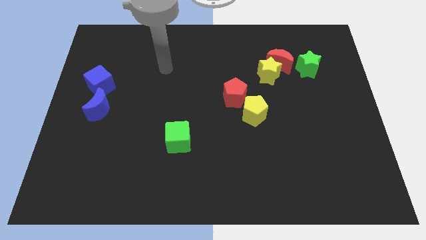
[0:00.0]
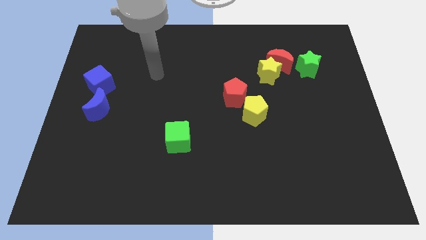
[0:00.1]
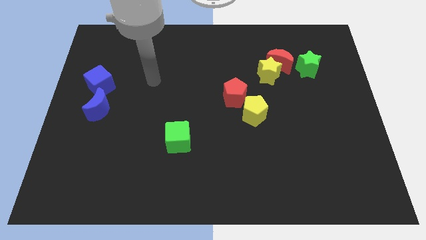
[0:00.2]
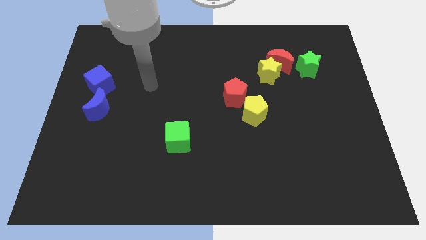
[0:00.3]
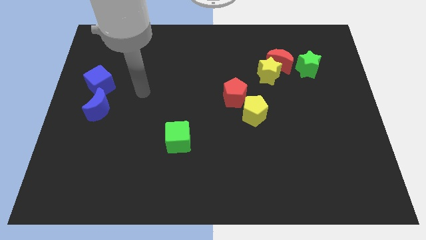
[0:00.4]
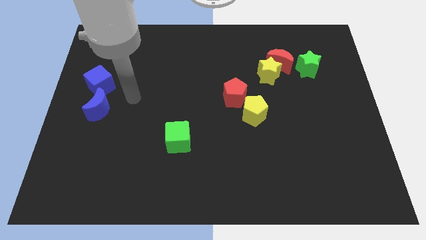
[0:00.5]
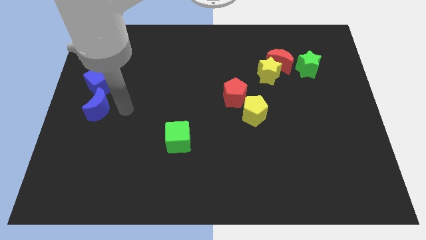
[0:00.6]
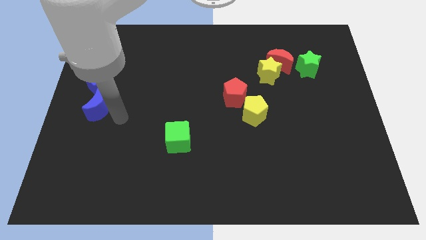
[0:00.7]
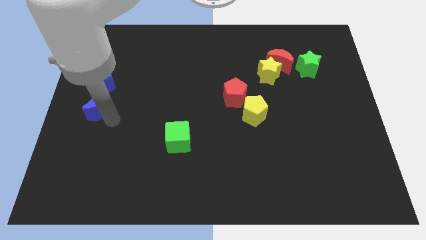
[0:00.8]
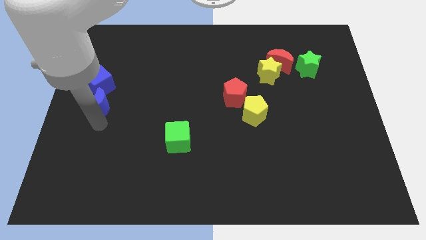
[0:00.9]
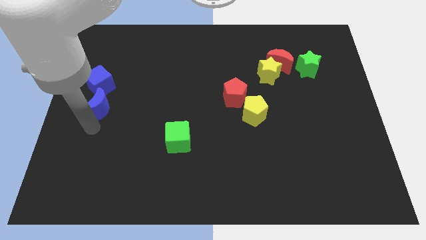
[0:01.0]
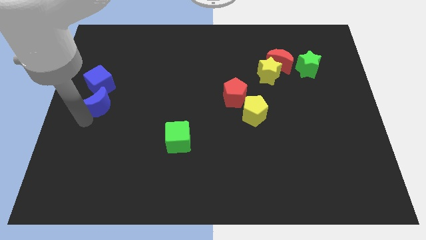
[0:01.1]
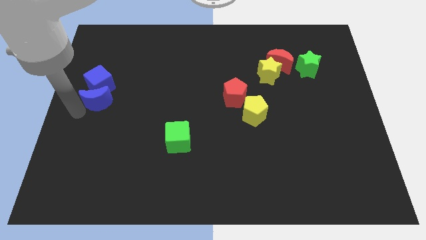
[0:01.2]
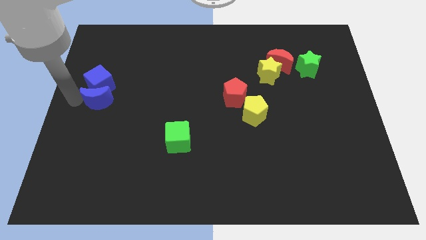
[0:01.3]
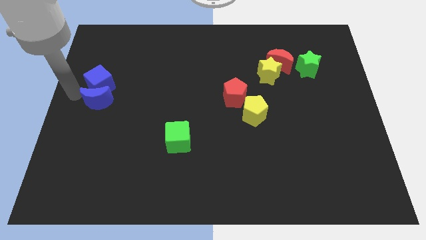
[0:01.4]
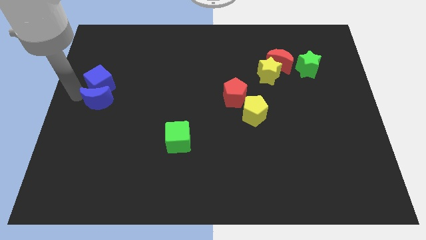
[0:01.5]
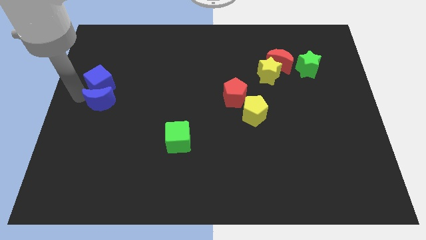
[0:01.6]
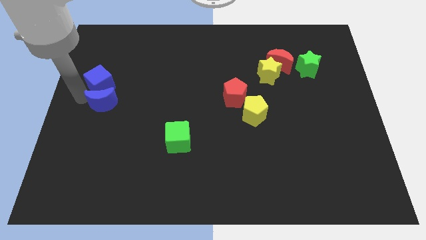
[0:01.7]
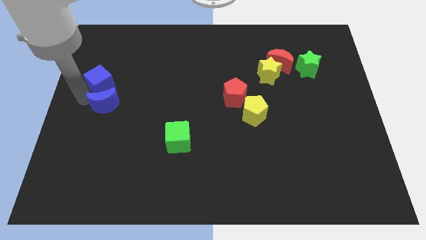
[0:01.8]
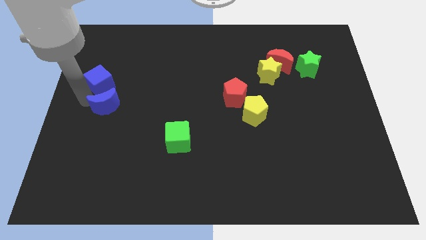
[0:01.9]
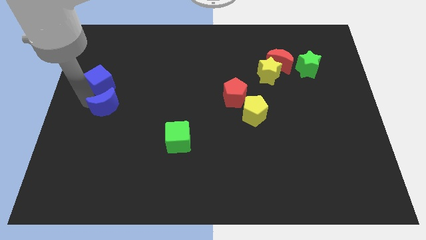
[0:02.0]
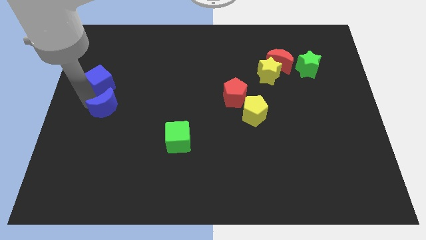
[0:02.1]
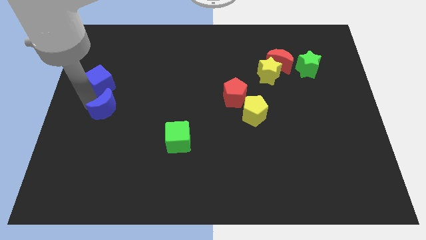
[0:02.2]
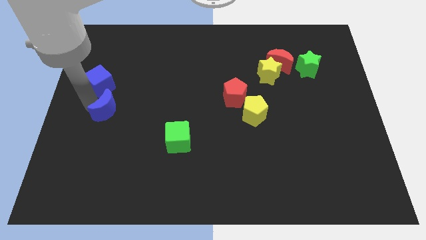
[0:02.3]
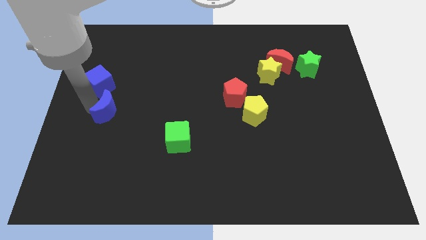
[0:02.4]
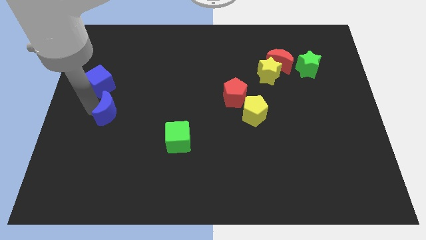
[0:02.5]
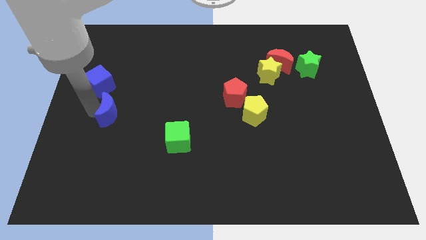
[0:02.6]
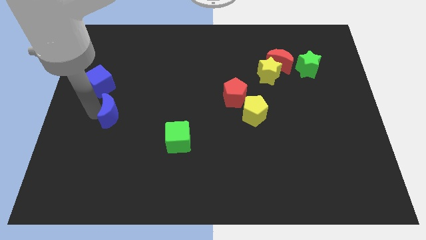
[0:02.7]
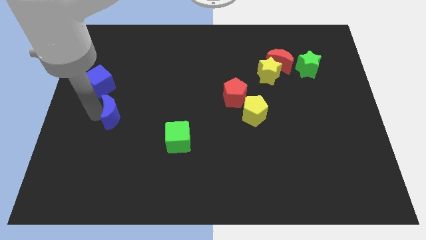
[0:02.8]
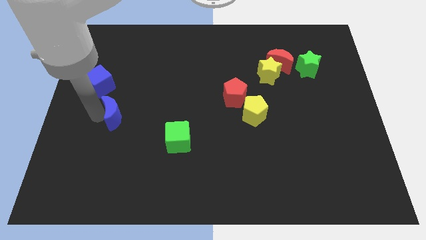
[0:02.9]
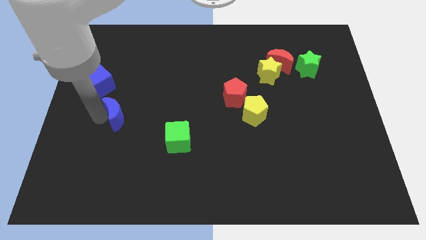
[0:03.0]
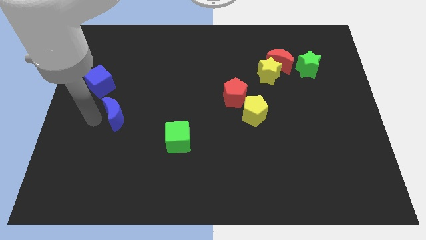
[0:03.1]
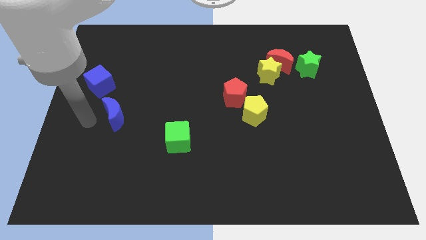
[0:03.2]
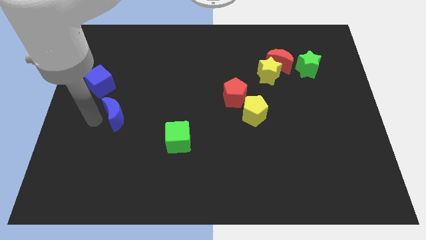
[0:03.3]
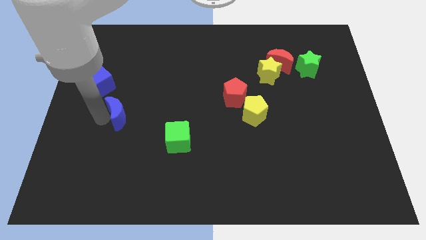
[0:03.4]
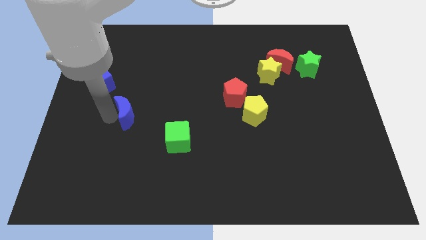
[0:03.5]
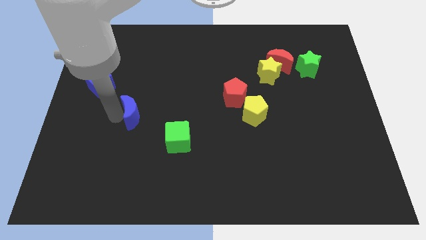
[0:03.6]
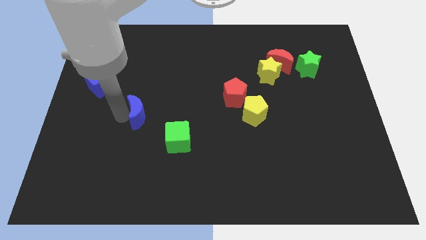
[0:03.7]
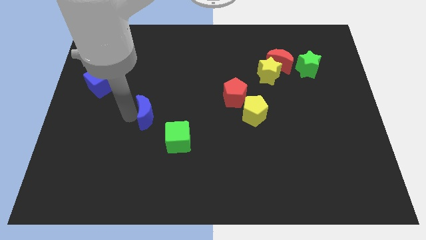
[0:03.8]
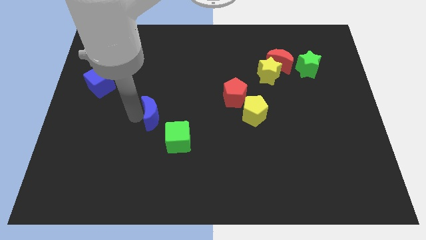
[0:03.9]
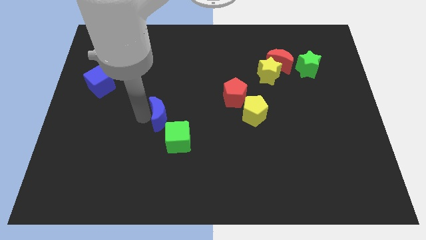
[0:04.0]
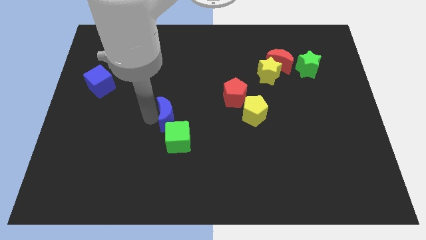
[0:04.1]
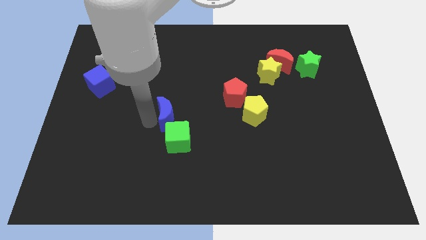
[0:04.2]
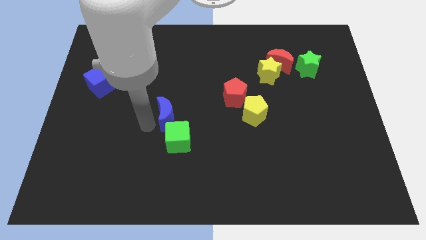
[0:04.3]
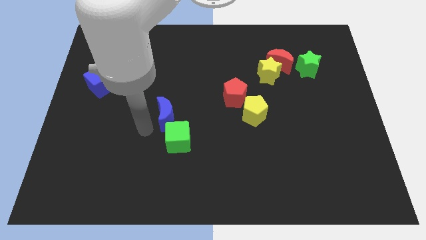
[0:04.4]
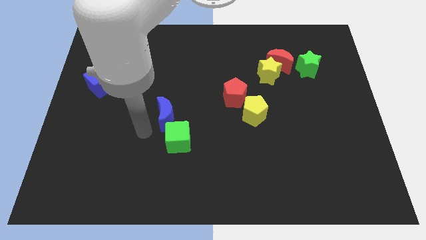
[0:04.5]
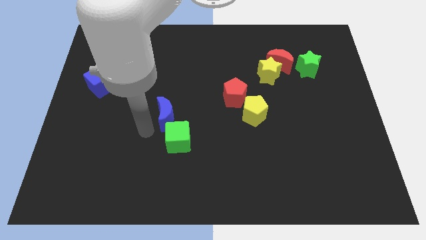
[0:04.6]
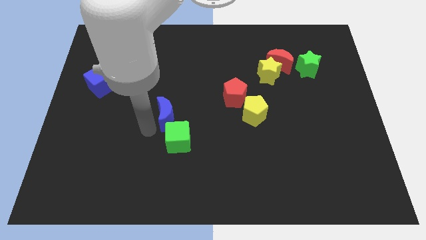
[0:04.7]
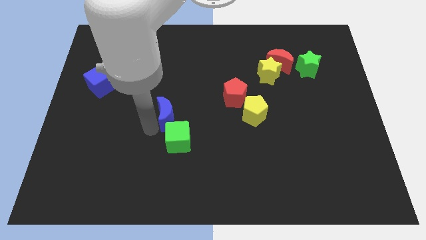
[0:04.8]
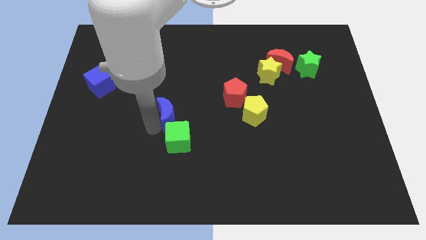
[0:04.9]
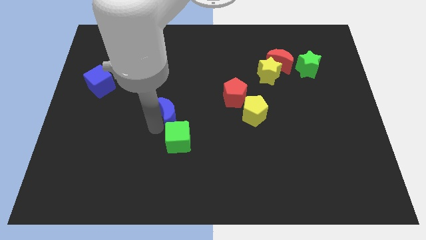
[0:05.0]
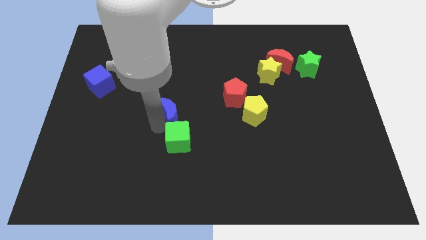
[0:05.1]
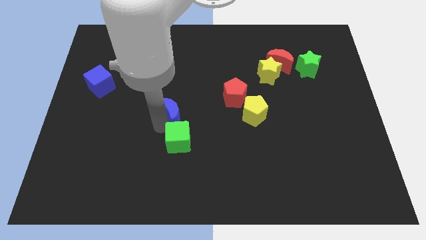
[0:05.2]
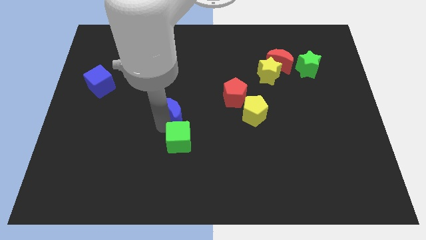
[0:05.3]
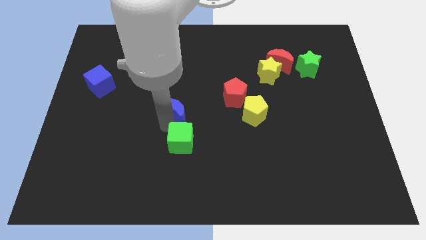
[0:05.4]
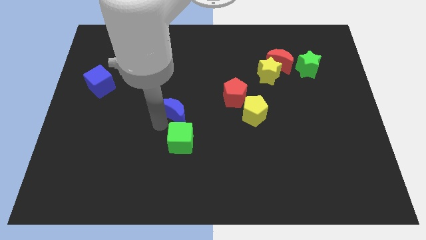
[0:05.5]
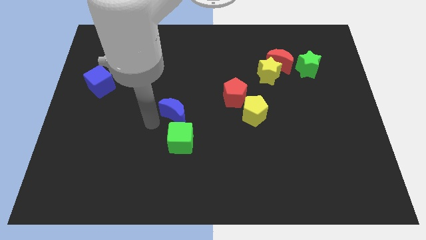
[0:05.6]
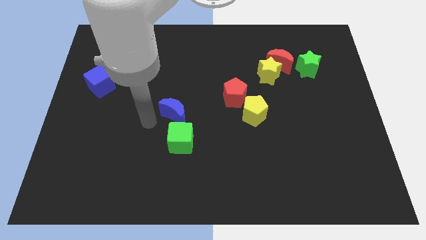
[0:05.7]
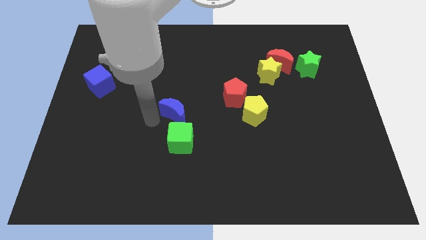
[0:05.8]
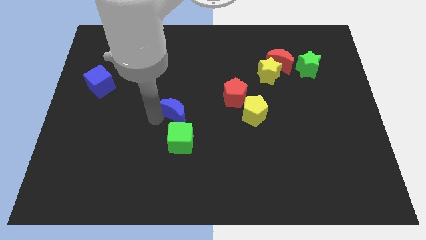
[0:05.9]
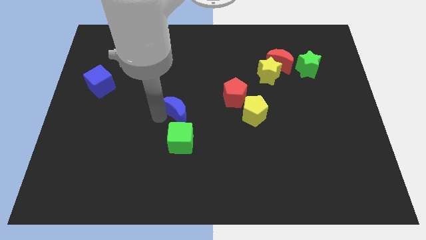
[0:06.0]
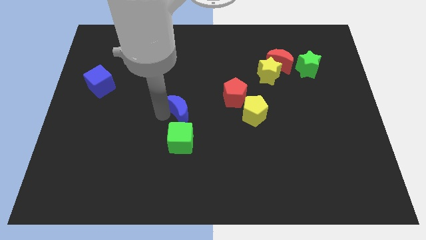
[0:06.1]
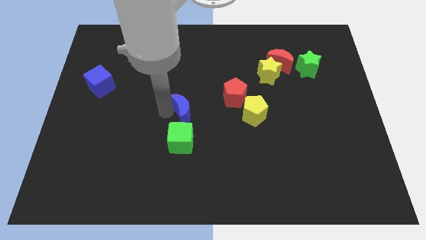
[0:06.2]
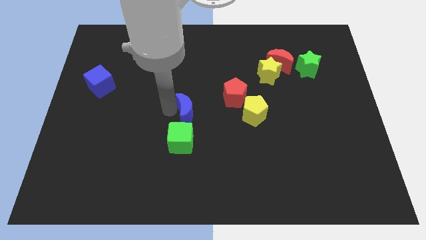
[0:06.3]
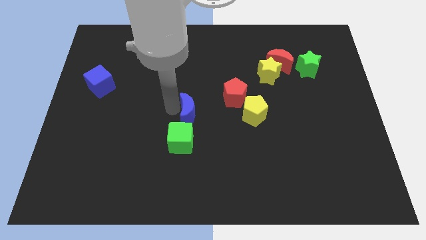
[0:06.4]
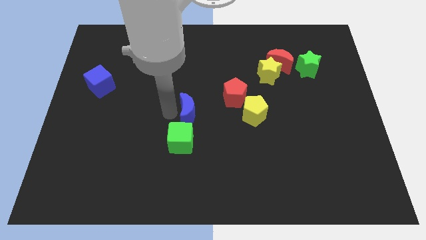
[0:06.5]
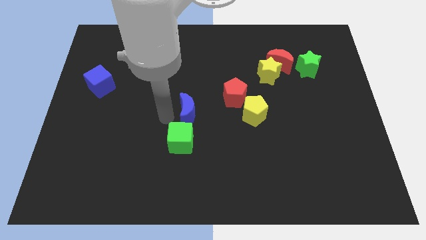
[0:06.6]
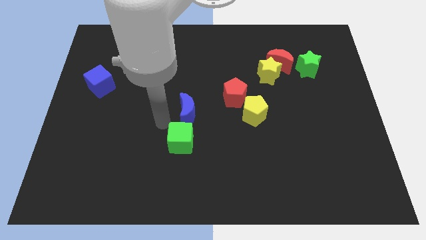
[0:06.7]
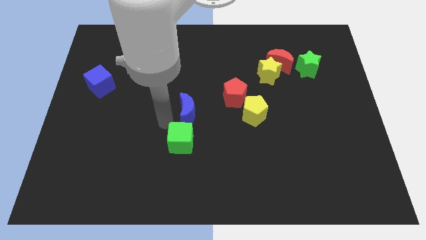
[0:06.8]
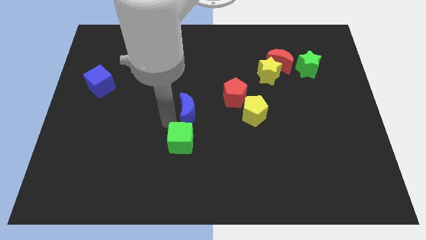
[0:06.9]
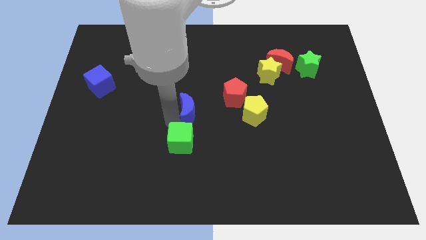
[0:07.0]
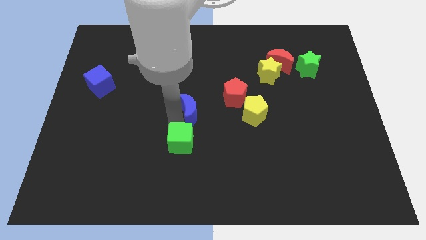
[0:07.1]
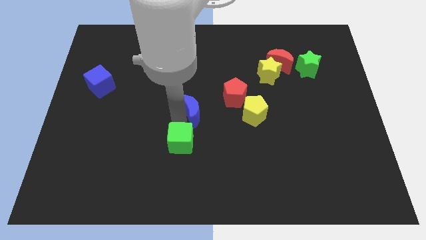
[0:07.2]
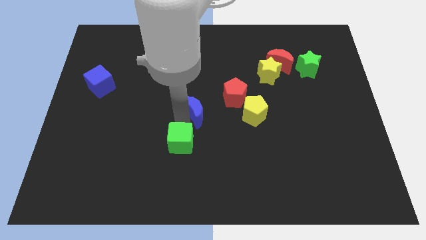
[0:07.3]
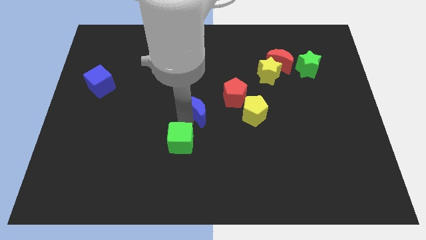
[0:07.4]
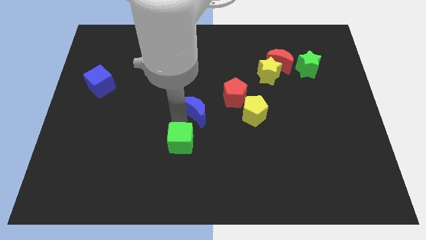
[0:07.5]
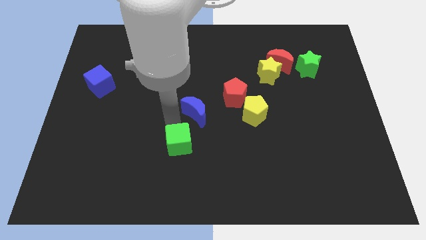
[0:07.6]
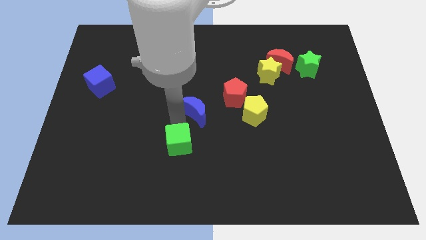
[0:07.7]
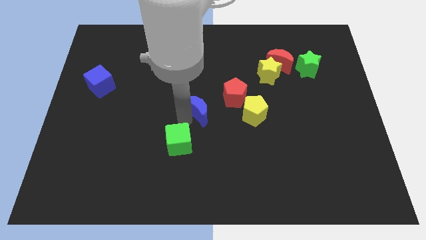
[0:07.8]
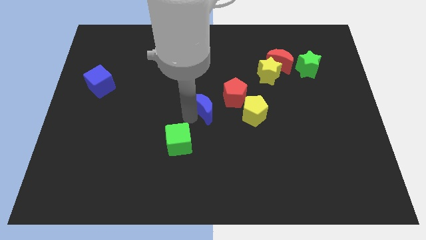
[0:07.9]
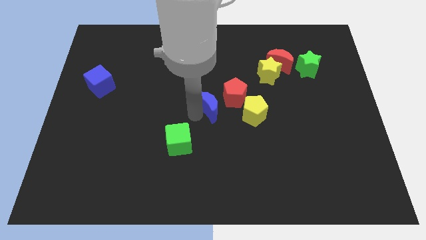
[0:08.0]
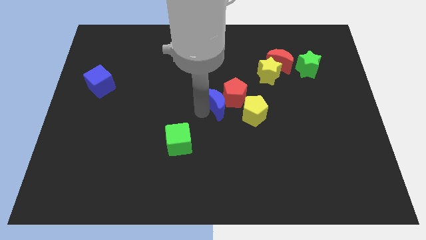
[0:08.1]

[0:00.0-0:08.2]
put the blue moon towards the red pentagon
